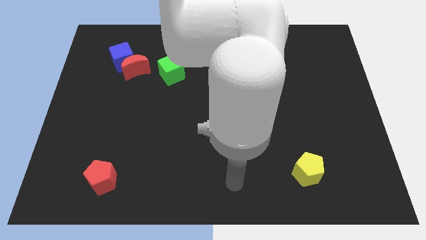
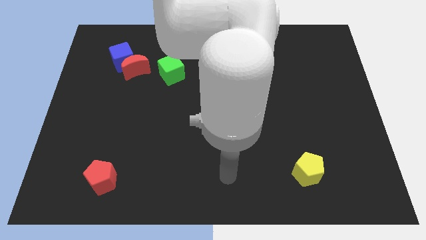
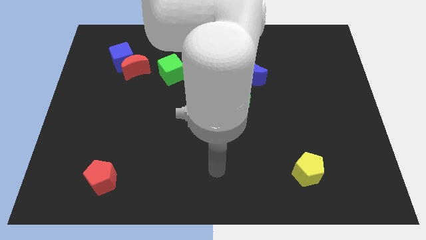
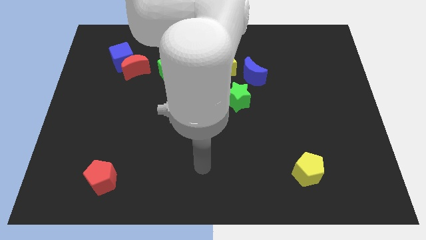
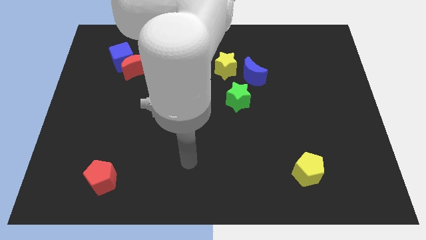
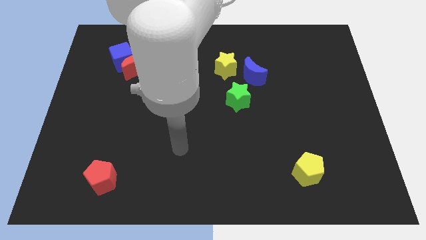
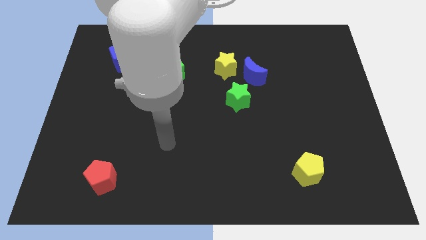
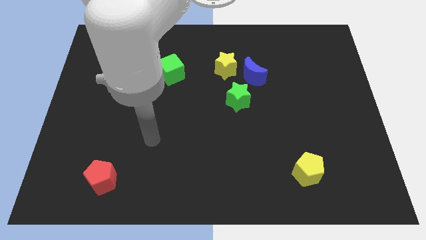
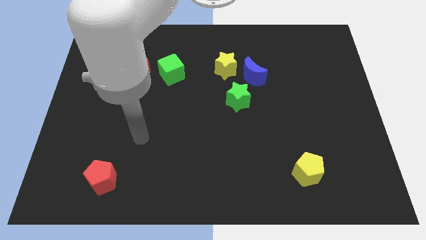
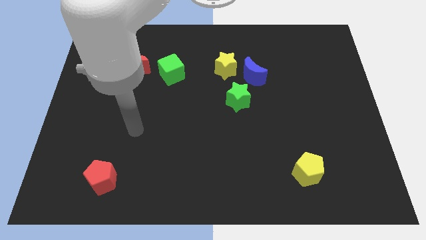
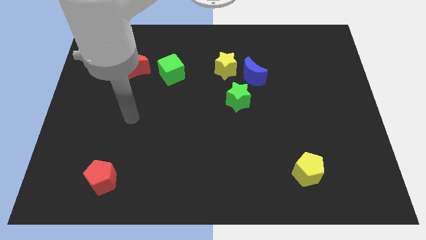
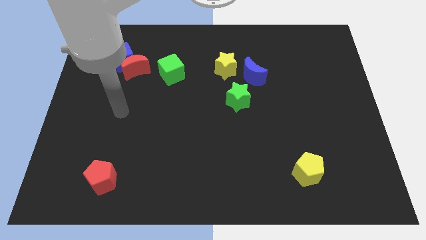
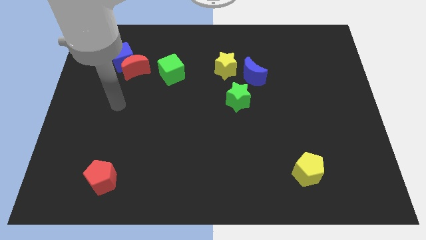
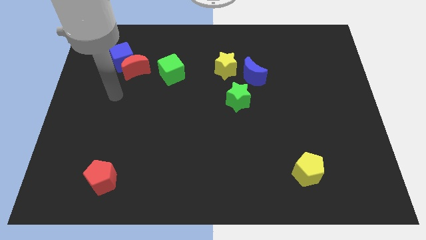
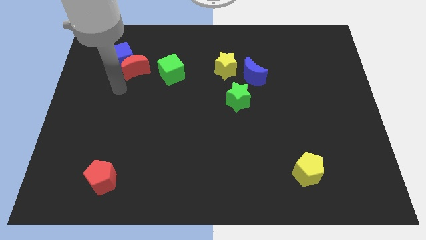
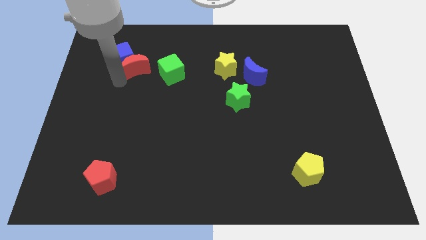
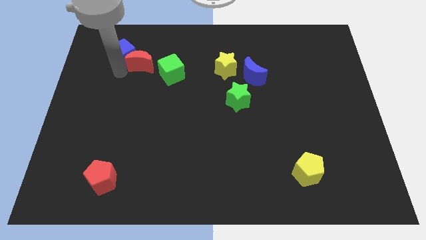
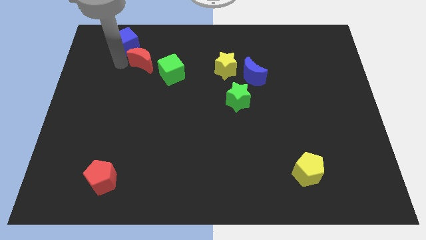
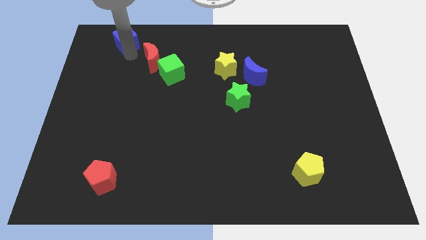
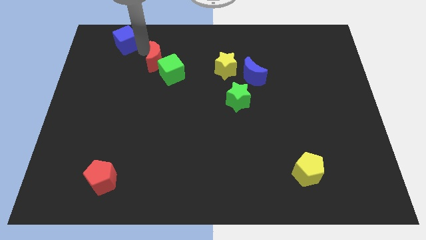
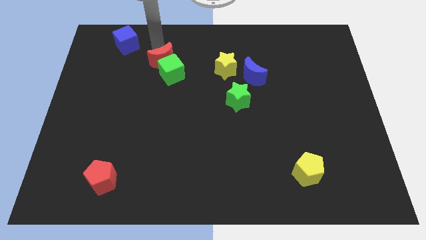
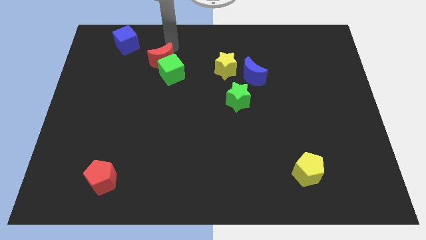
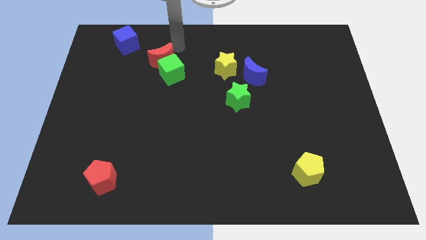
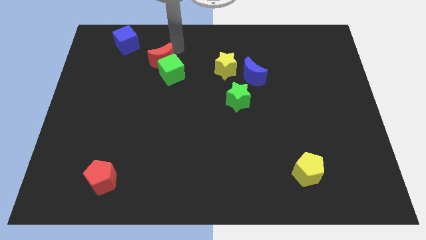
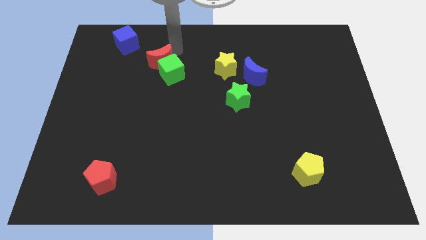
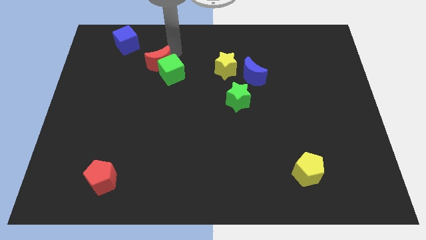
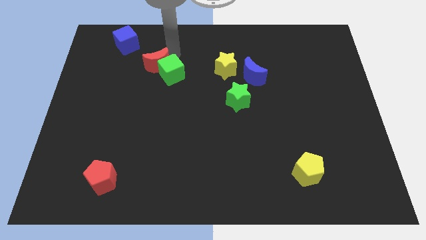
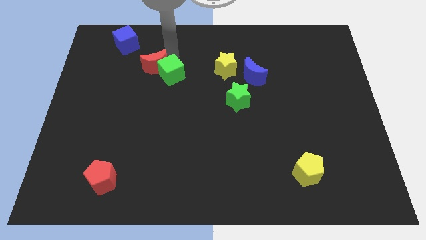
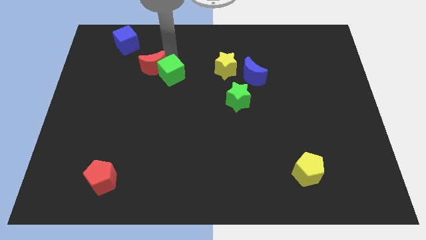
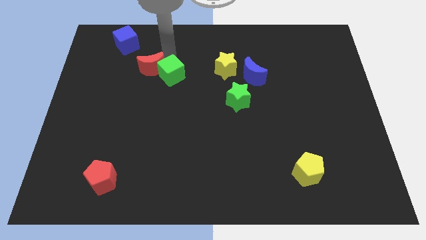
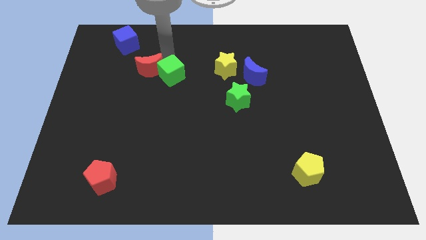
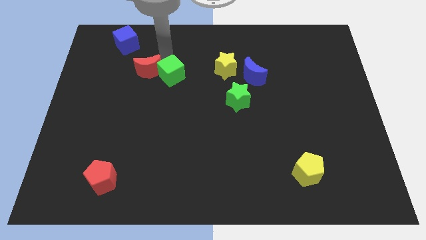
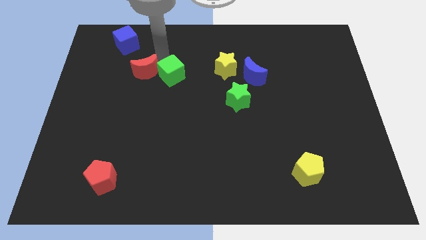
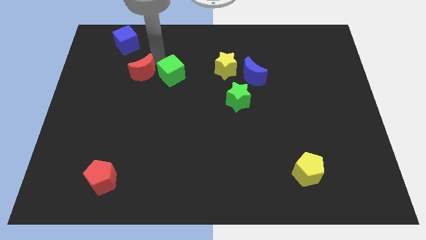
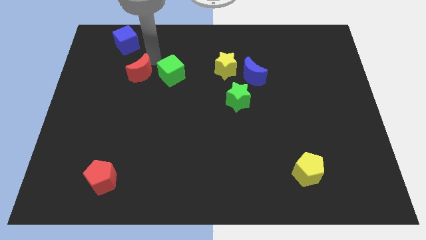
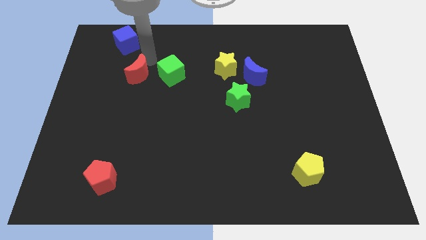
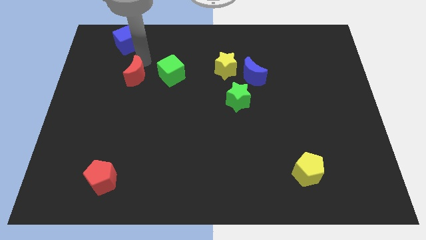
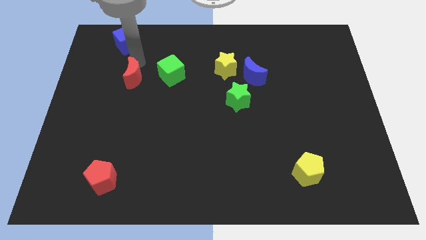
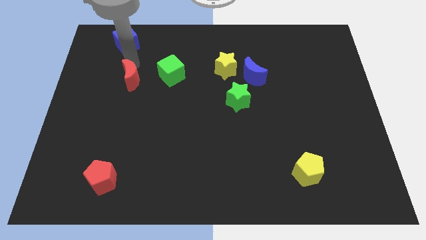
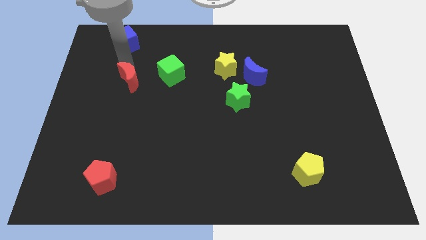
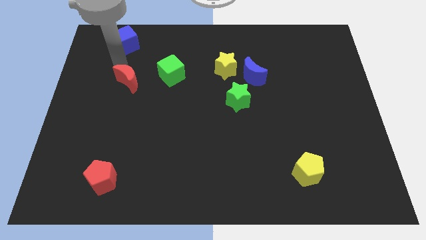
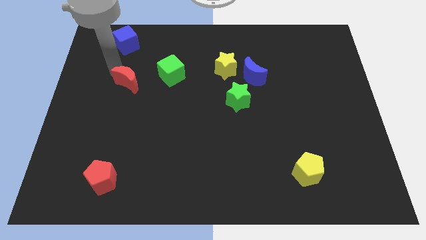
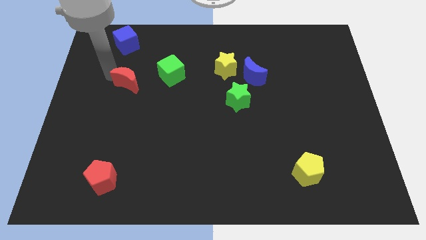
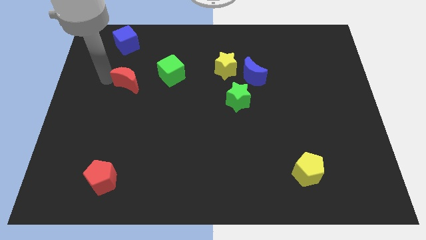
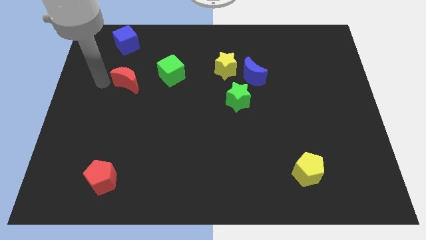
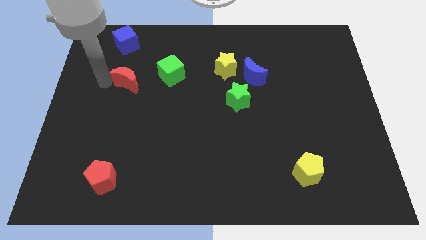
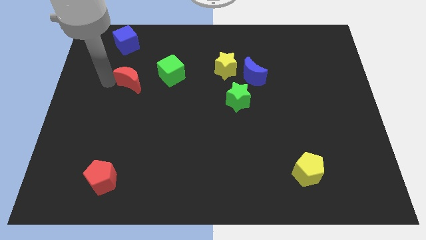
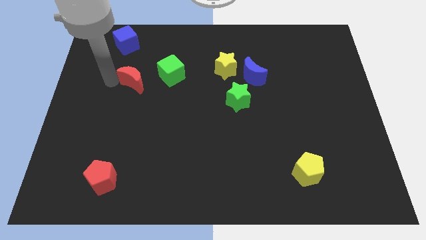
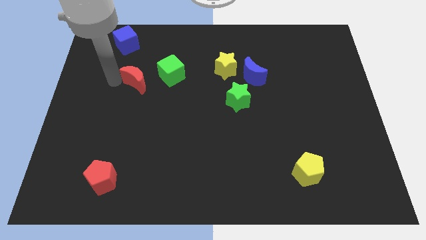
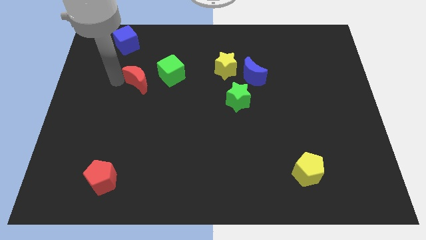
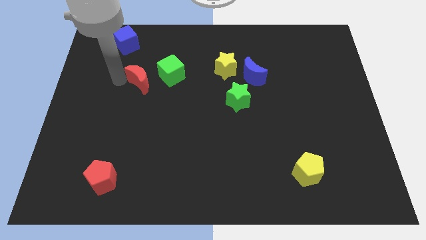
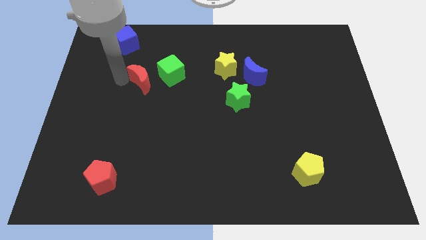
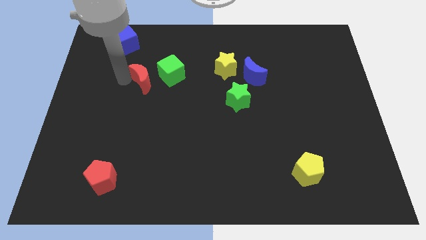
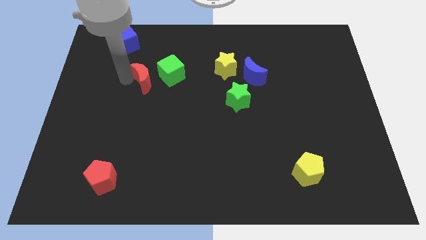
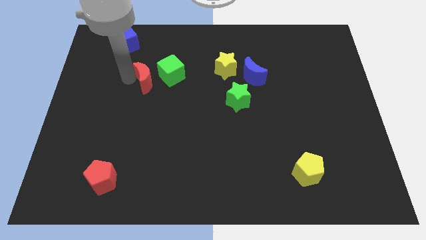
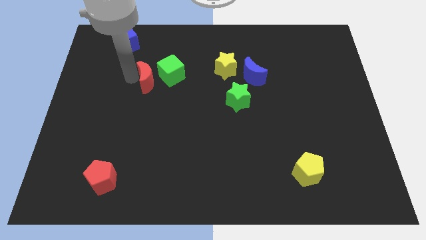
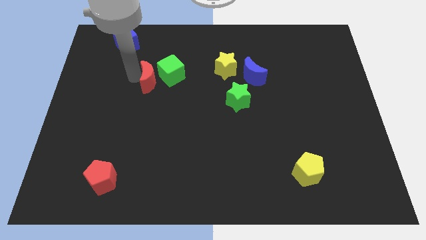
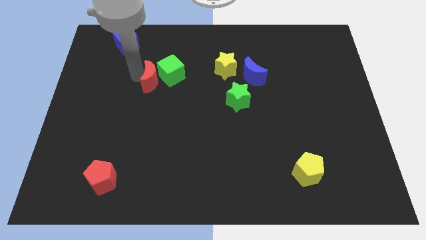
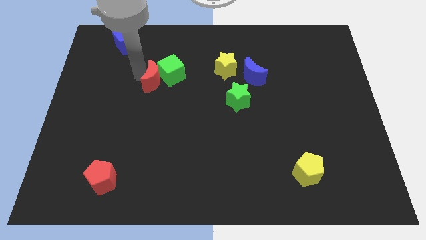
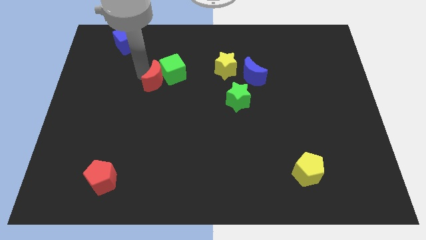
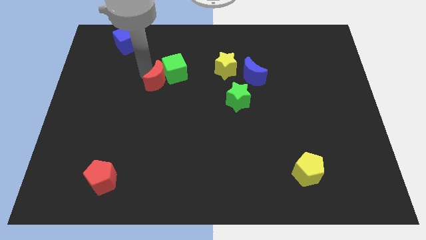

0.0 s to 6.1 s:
slide the red moon downwards and to the right a little

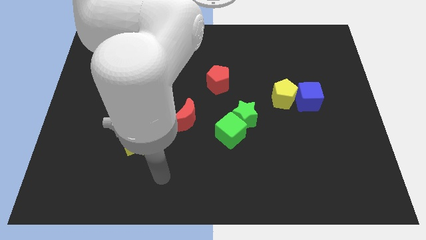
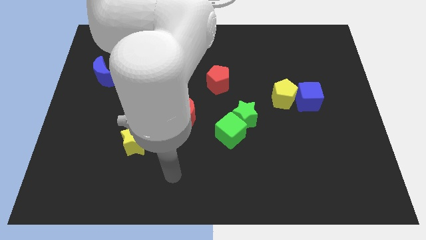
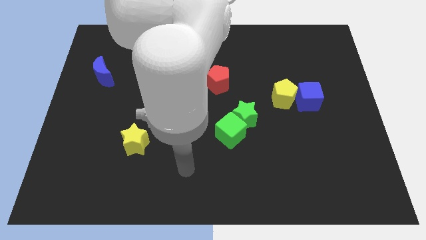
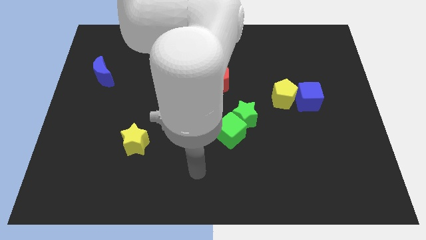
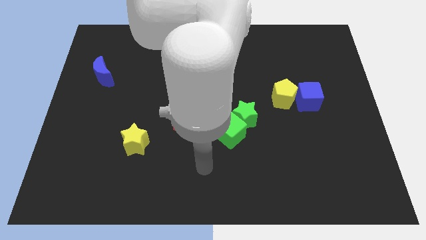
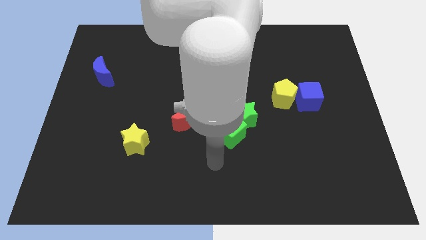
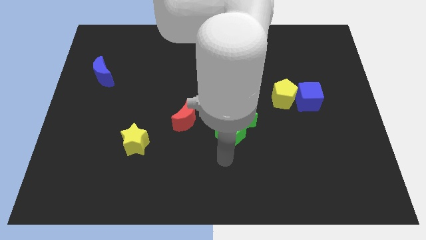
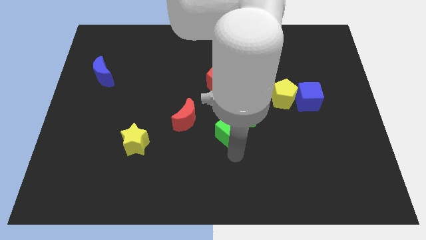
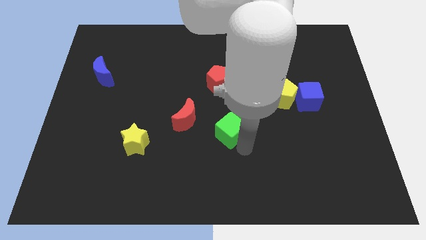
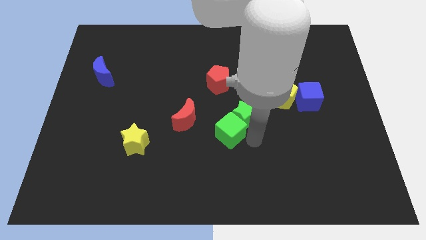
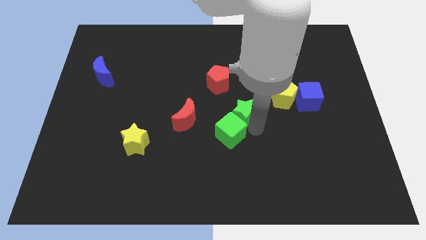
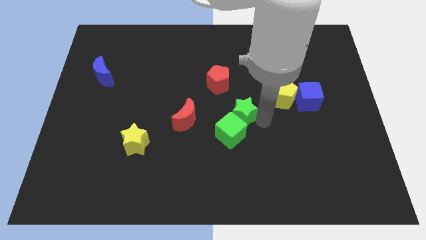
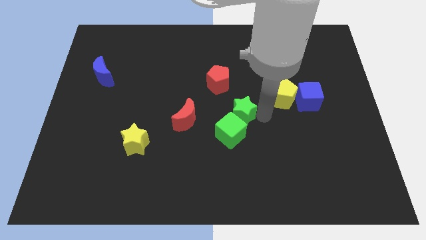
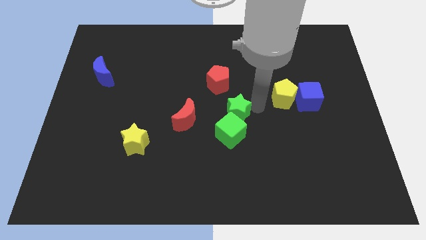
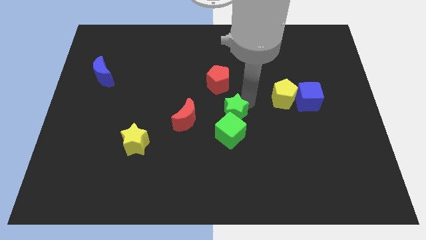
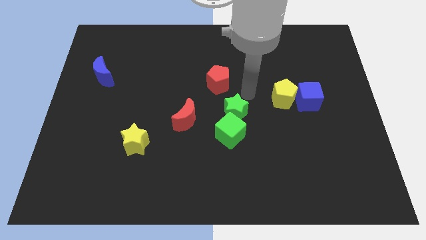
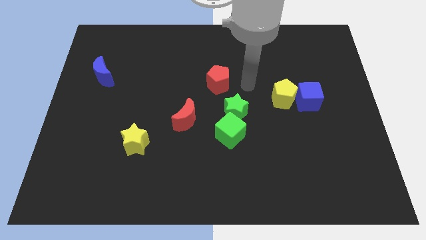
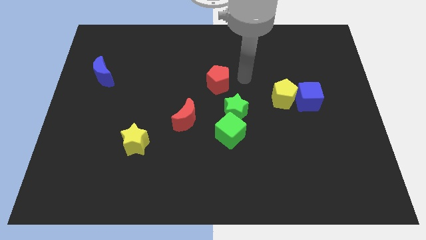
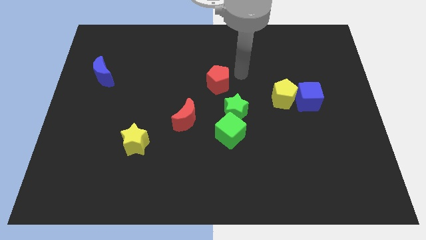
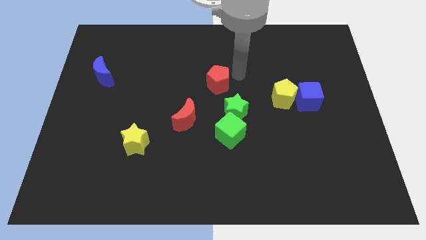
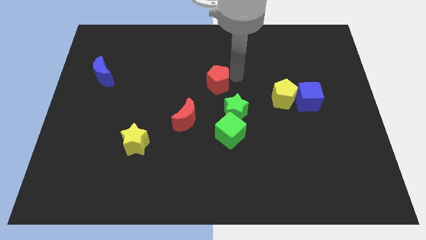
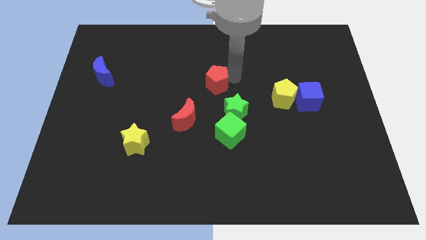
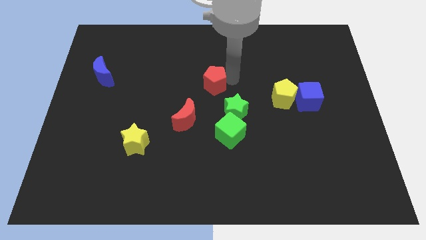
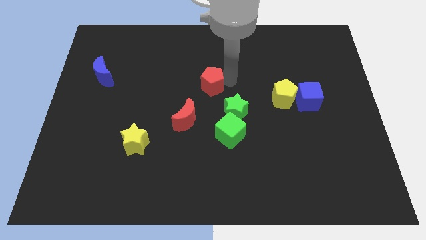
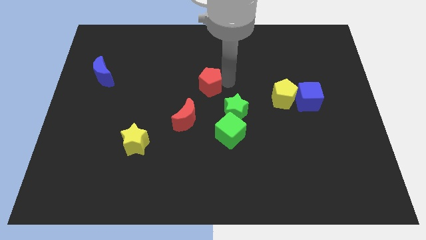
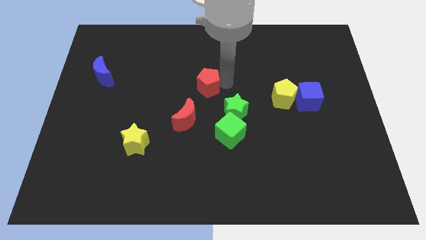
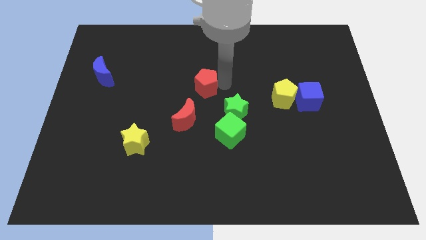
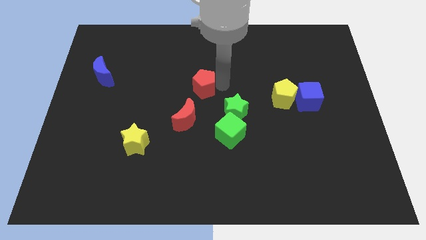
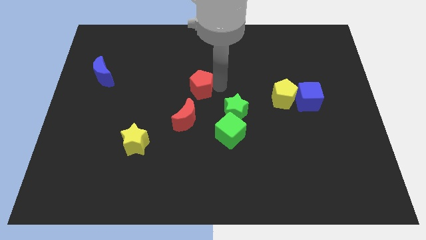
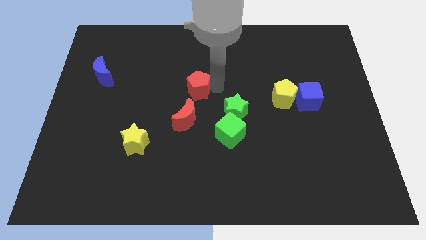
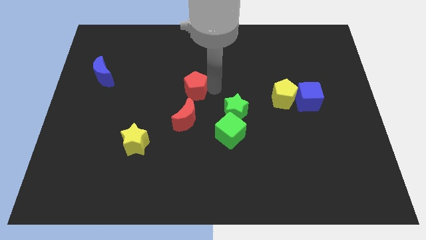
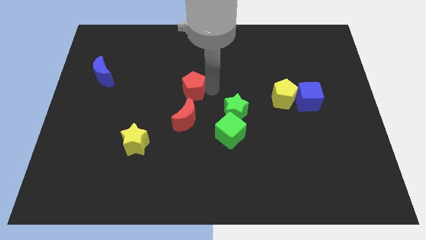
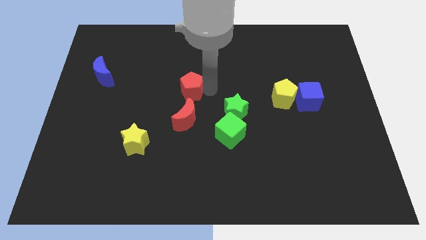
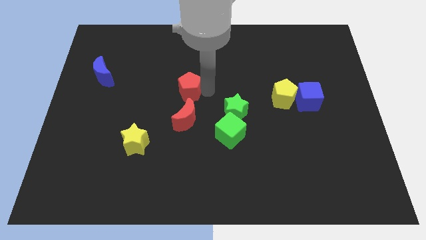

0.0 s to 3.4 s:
slide the red pentagon to the left a little
